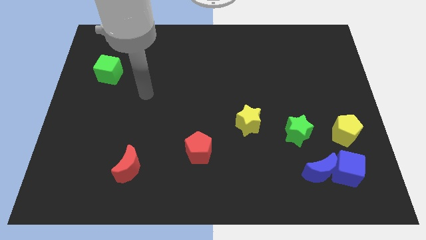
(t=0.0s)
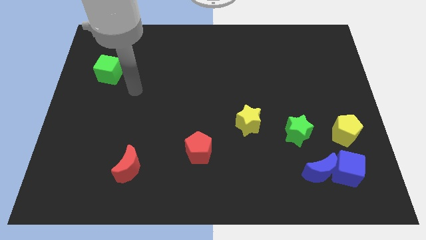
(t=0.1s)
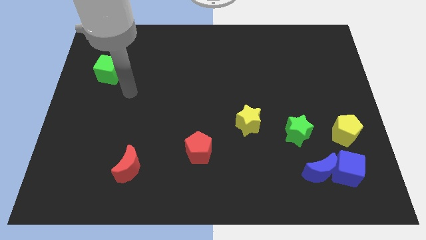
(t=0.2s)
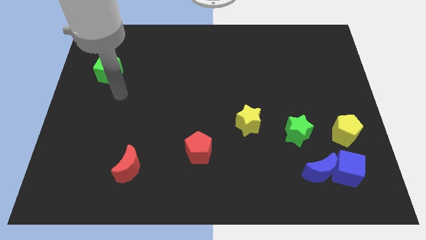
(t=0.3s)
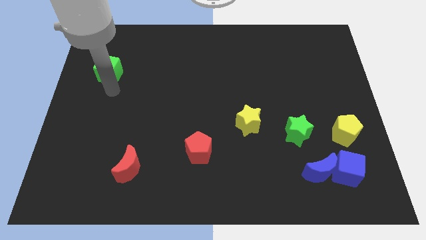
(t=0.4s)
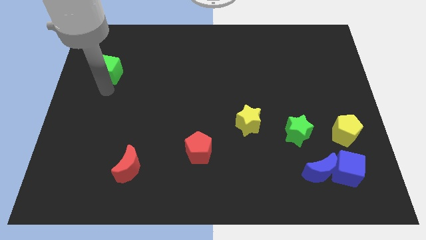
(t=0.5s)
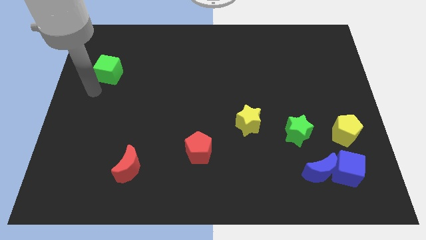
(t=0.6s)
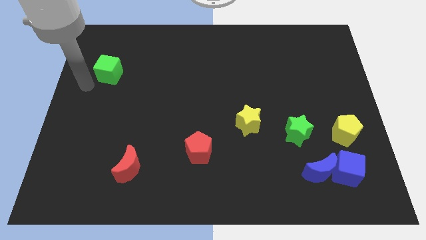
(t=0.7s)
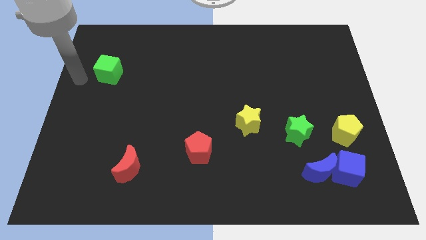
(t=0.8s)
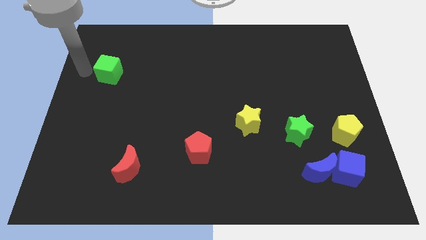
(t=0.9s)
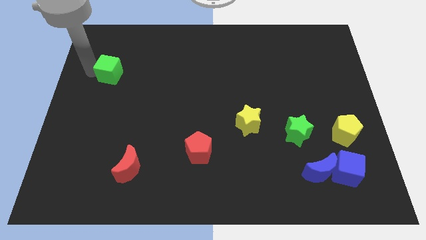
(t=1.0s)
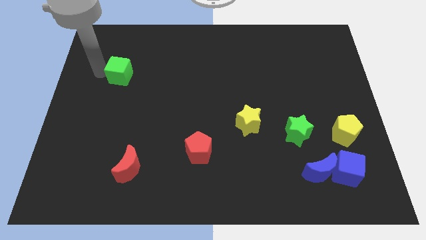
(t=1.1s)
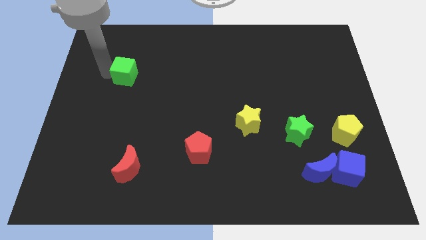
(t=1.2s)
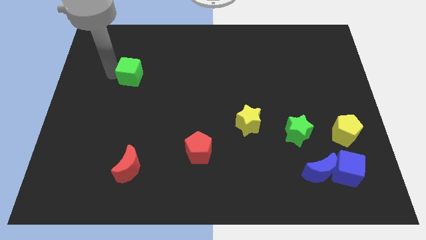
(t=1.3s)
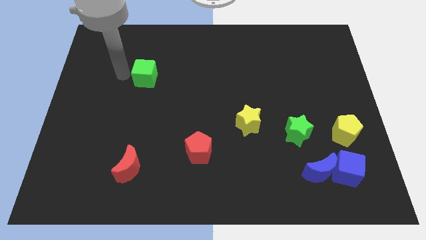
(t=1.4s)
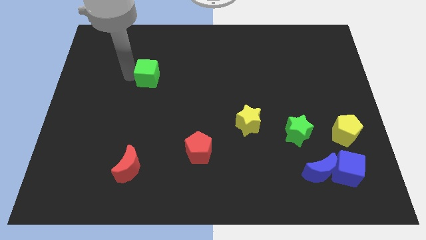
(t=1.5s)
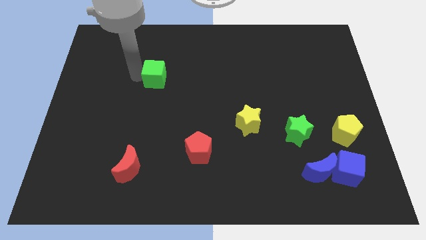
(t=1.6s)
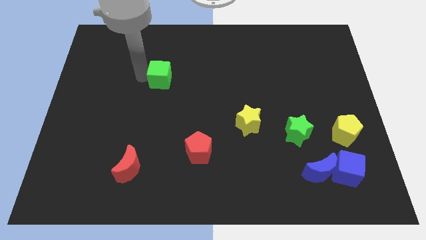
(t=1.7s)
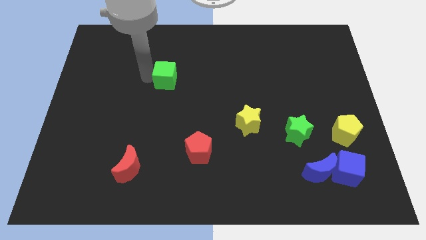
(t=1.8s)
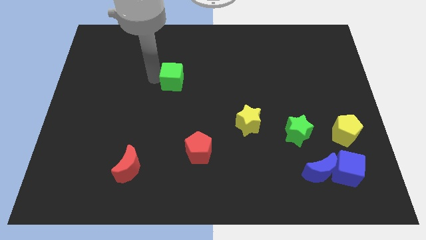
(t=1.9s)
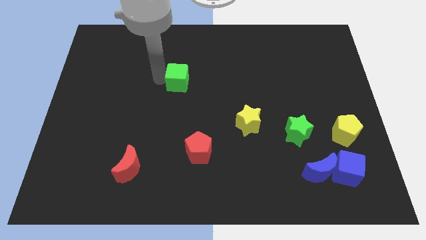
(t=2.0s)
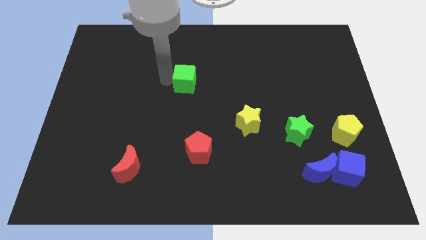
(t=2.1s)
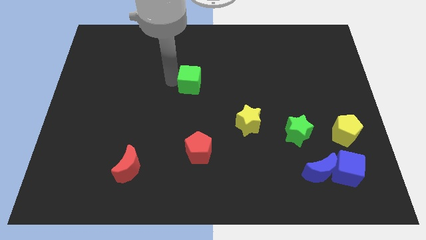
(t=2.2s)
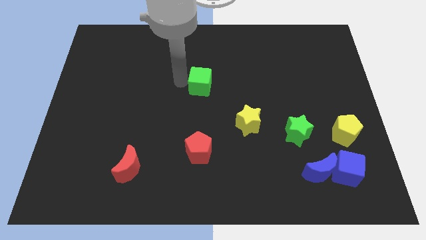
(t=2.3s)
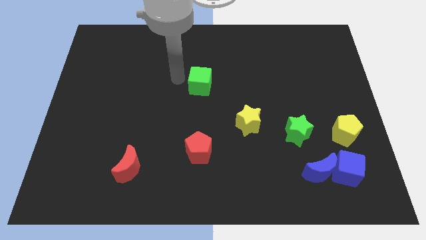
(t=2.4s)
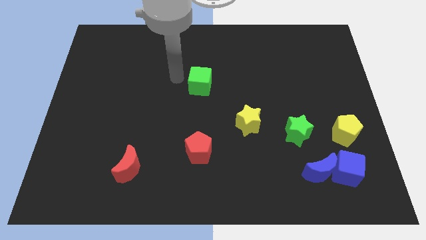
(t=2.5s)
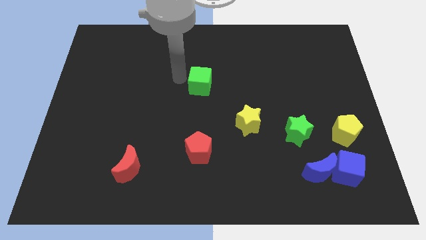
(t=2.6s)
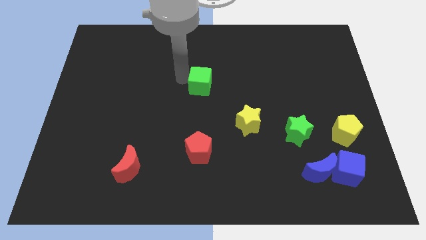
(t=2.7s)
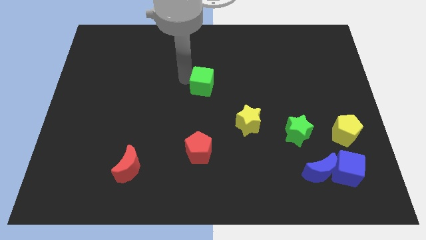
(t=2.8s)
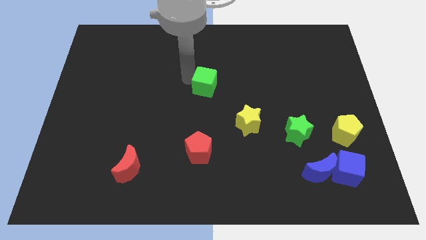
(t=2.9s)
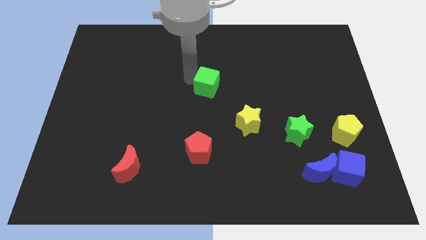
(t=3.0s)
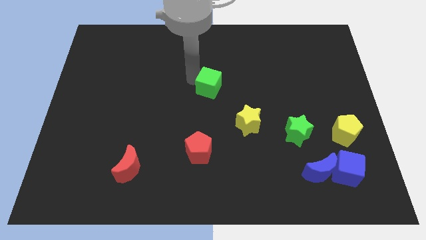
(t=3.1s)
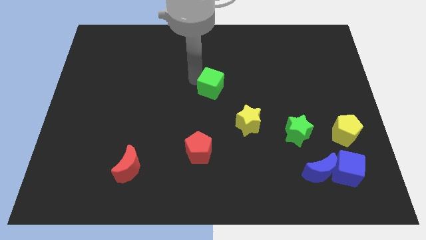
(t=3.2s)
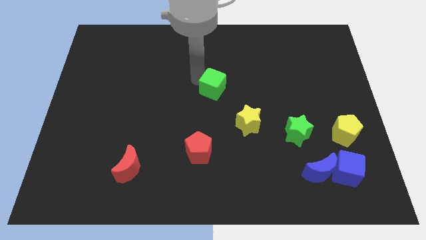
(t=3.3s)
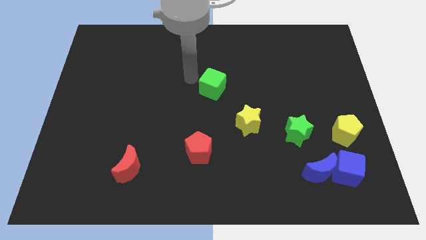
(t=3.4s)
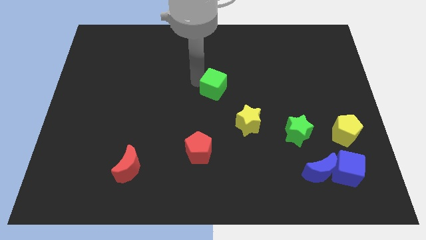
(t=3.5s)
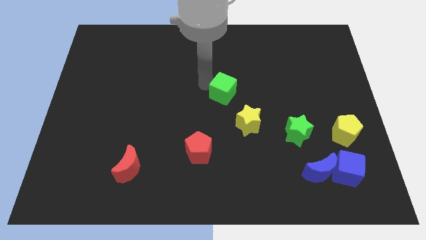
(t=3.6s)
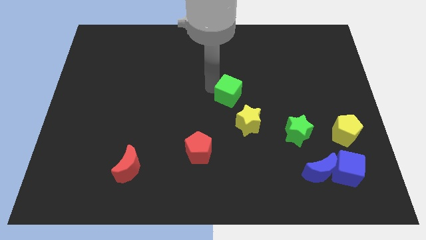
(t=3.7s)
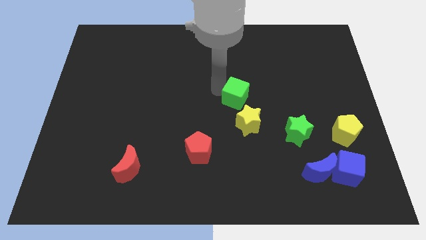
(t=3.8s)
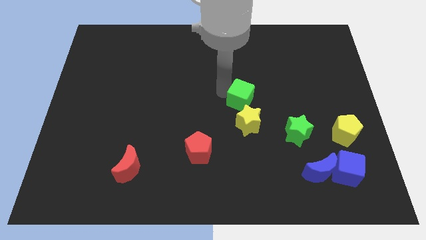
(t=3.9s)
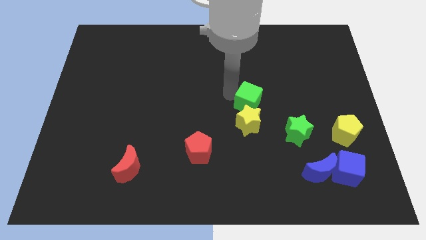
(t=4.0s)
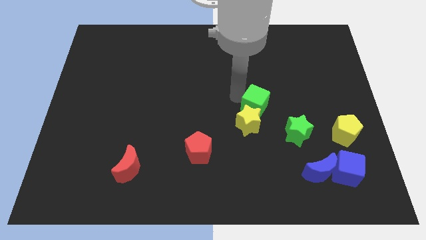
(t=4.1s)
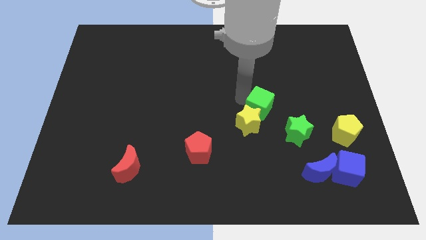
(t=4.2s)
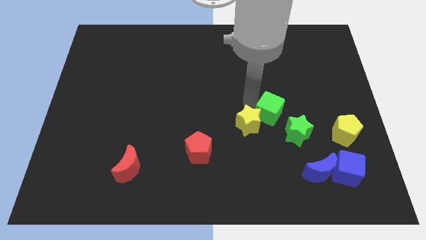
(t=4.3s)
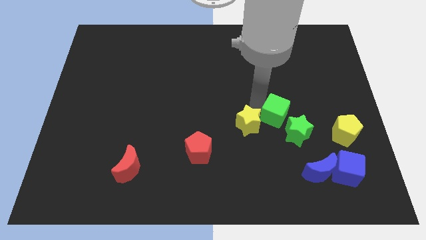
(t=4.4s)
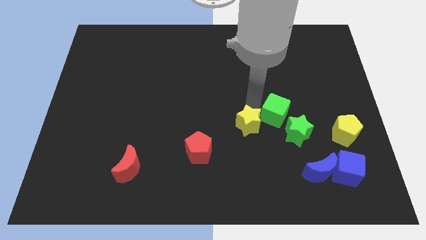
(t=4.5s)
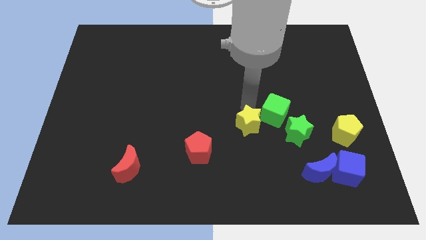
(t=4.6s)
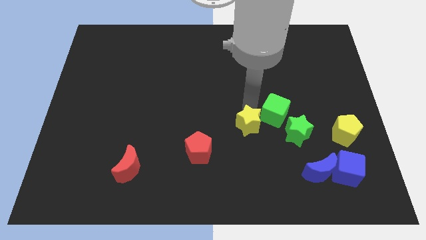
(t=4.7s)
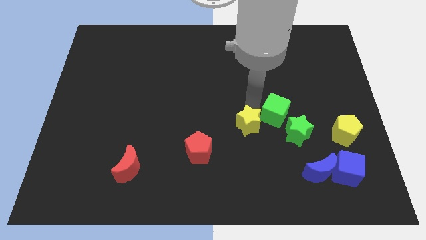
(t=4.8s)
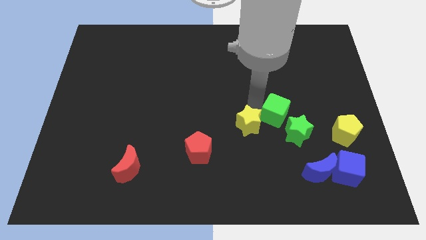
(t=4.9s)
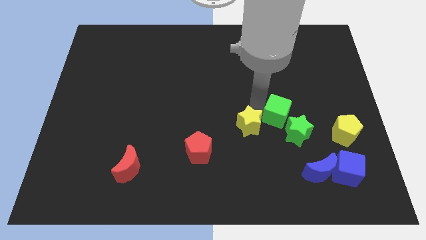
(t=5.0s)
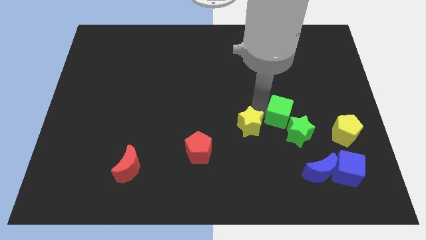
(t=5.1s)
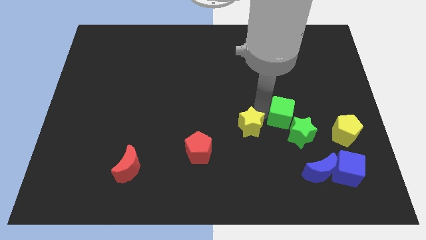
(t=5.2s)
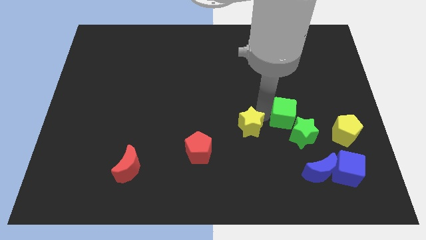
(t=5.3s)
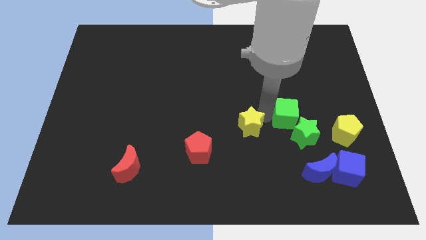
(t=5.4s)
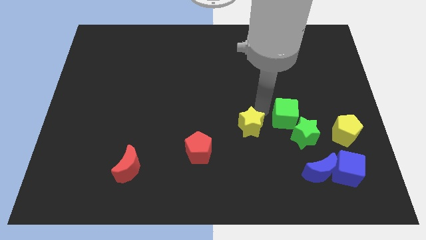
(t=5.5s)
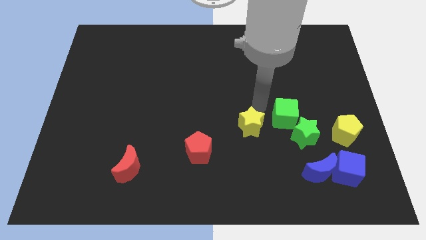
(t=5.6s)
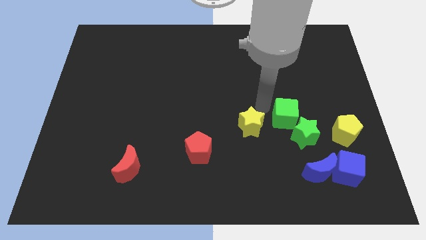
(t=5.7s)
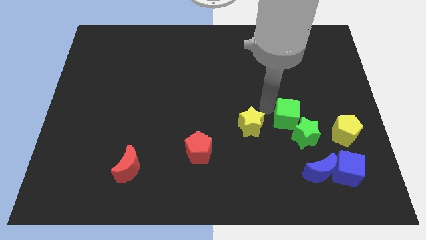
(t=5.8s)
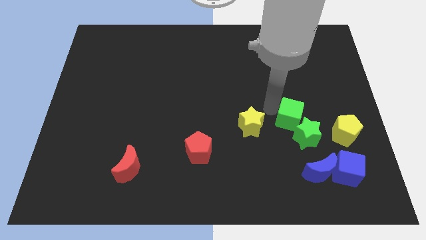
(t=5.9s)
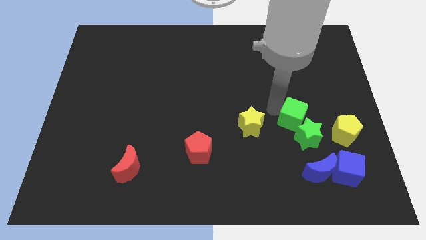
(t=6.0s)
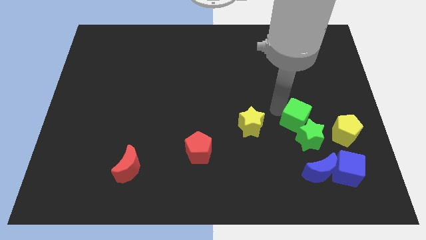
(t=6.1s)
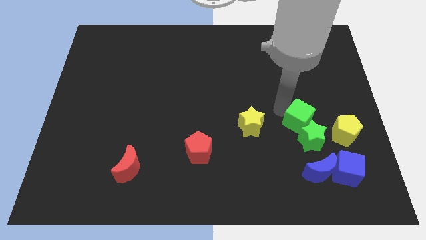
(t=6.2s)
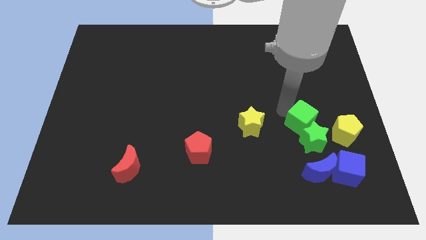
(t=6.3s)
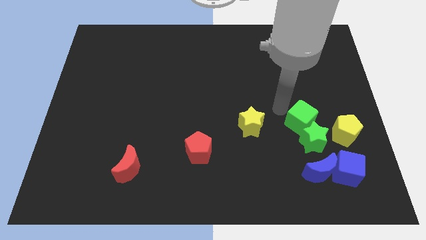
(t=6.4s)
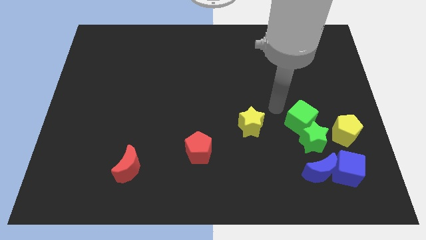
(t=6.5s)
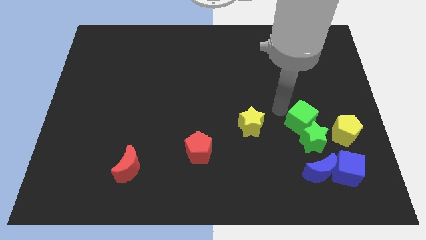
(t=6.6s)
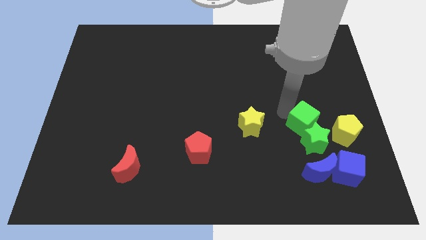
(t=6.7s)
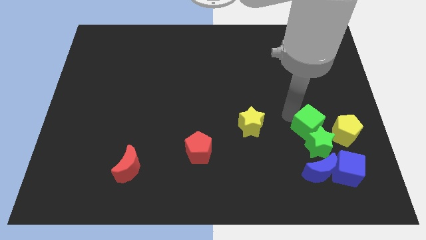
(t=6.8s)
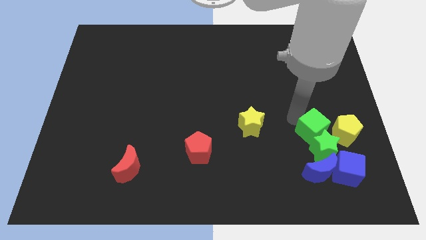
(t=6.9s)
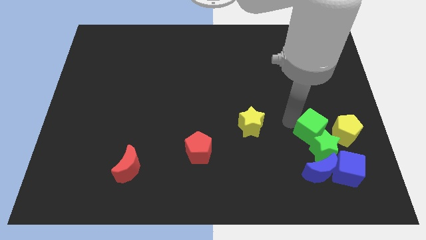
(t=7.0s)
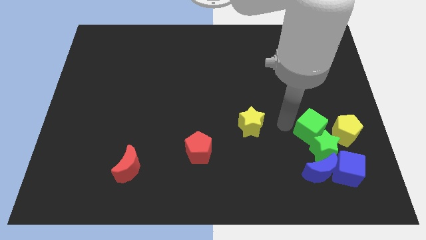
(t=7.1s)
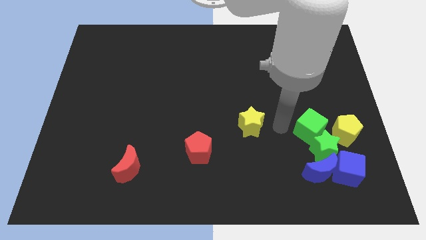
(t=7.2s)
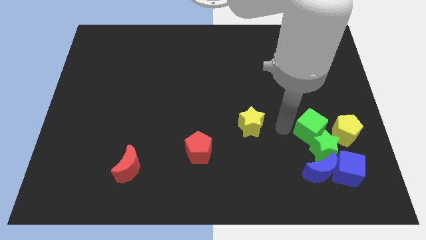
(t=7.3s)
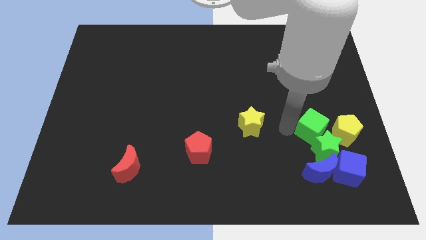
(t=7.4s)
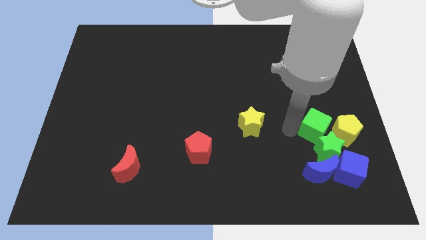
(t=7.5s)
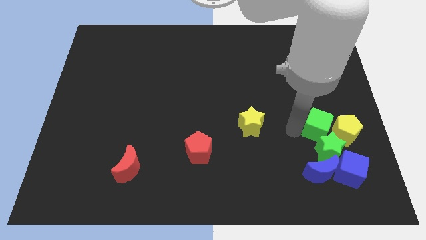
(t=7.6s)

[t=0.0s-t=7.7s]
move the green cube close to the yellow pentagon
